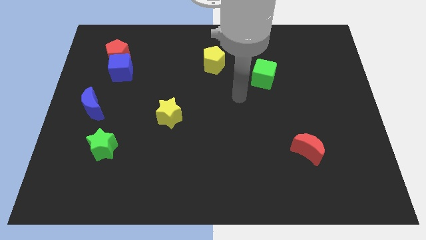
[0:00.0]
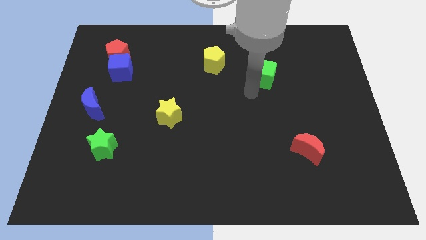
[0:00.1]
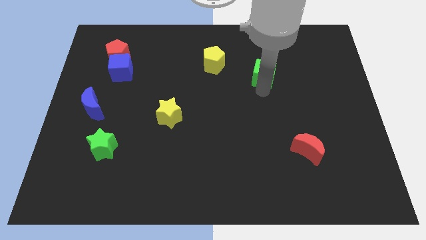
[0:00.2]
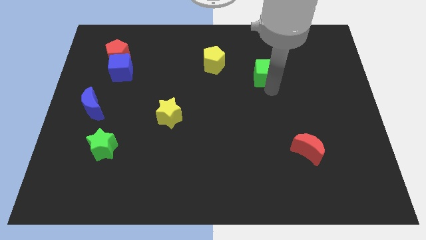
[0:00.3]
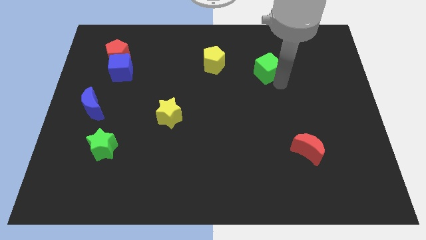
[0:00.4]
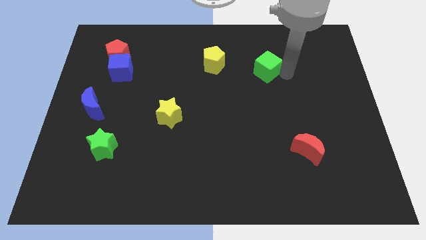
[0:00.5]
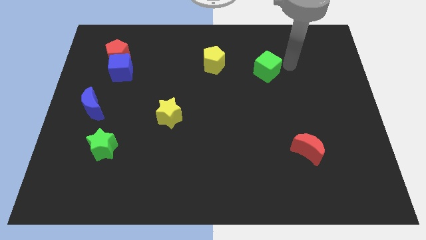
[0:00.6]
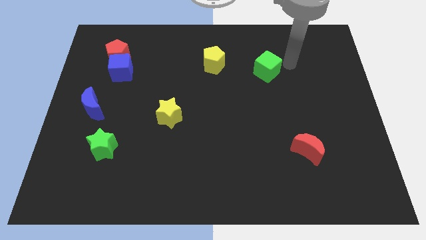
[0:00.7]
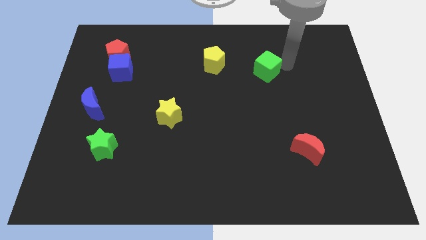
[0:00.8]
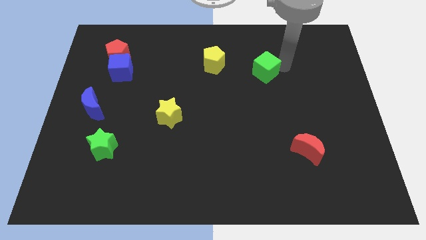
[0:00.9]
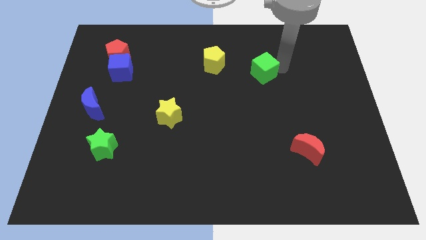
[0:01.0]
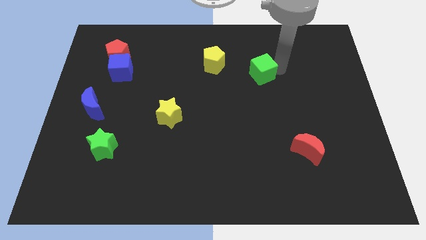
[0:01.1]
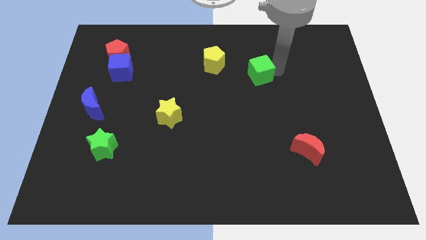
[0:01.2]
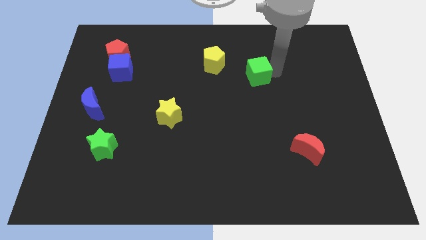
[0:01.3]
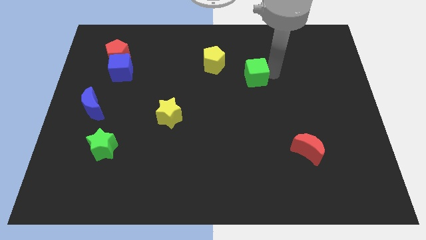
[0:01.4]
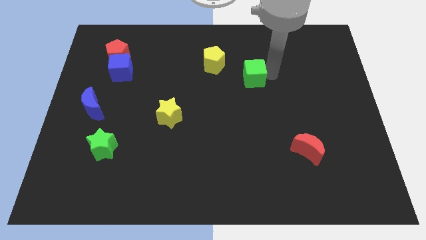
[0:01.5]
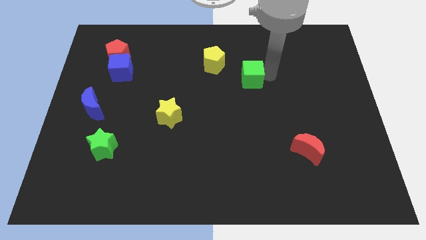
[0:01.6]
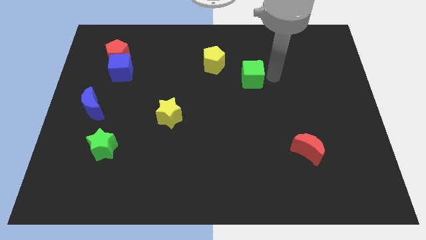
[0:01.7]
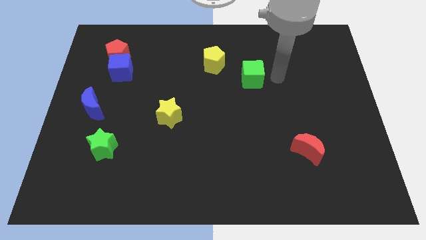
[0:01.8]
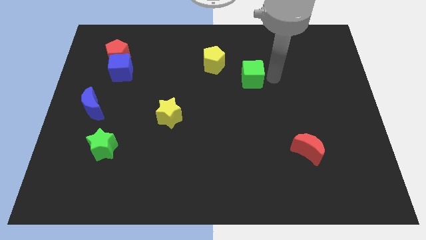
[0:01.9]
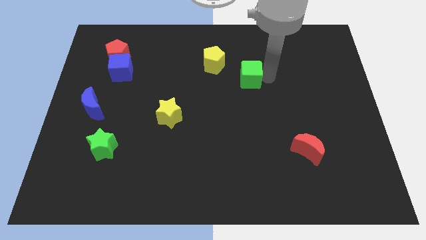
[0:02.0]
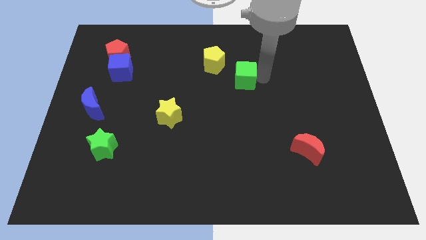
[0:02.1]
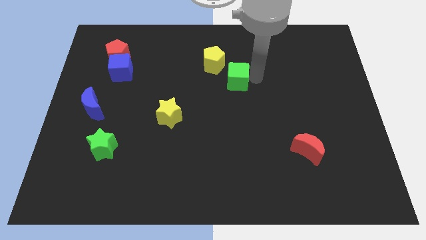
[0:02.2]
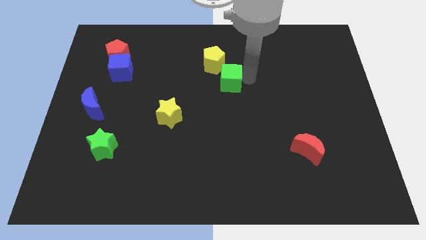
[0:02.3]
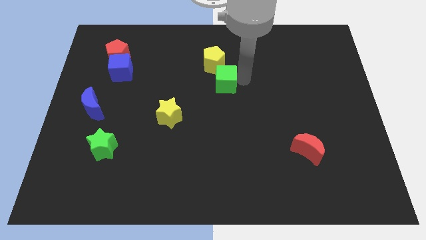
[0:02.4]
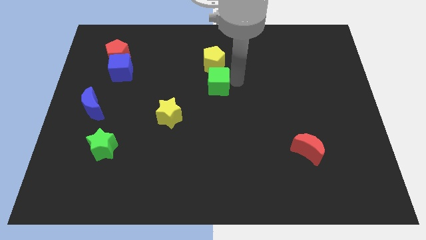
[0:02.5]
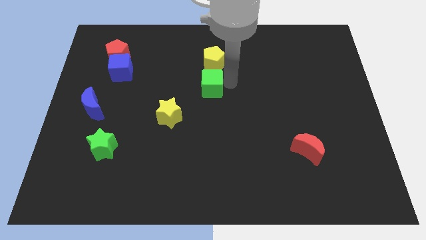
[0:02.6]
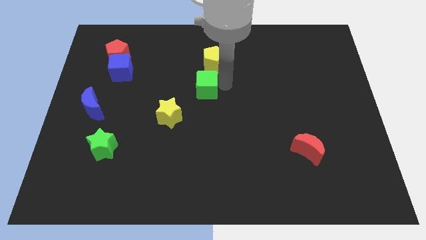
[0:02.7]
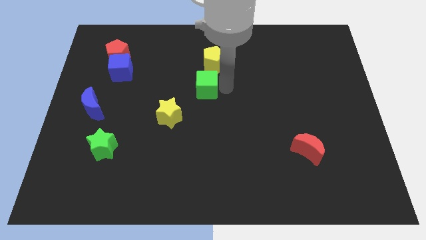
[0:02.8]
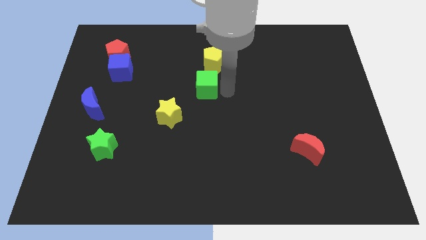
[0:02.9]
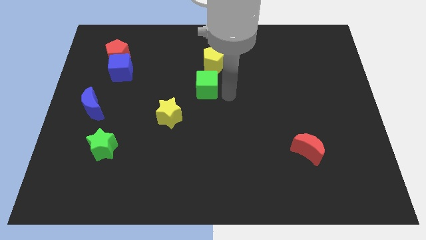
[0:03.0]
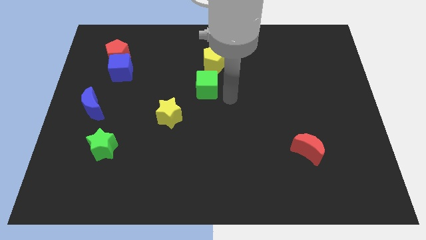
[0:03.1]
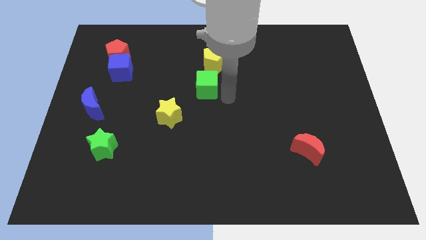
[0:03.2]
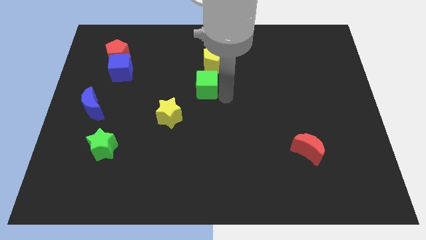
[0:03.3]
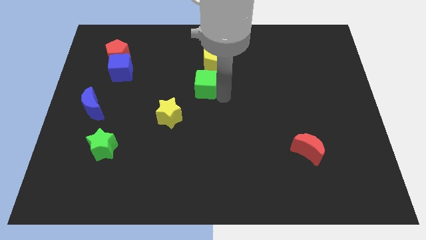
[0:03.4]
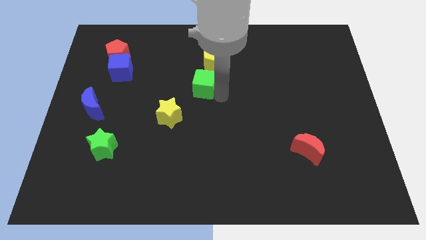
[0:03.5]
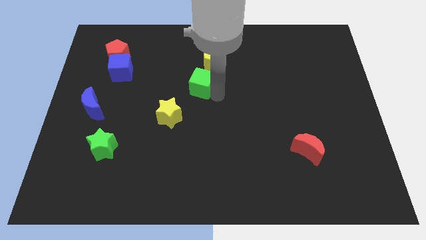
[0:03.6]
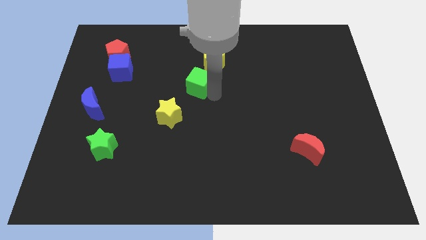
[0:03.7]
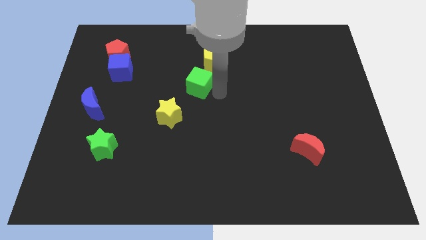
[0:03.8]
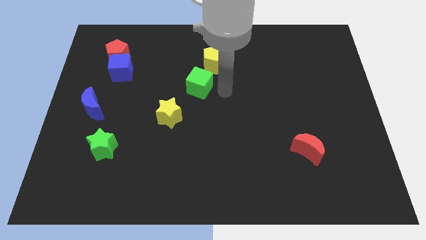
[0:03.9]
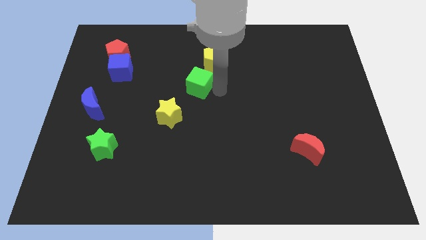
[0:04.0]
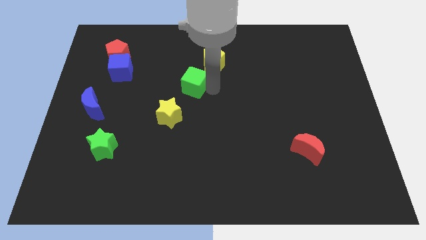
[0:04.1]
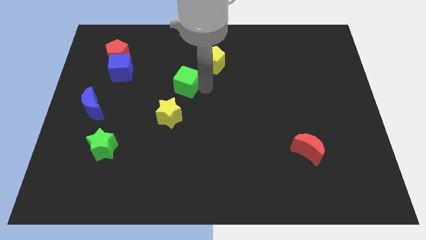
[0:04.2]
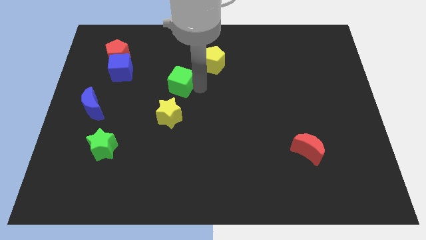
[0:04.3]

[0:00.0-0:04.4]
slide the green cube to the left

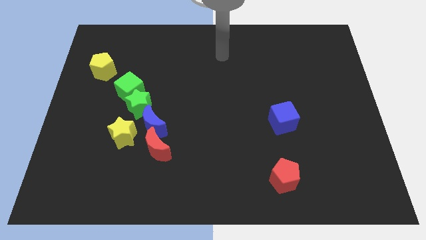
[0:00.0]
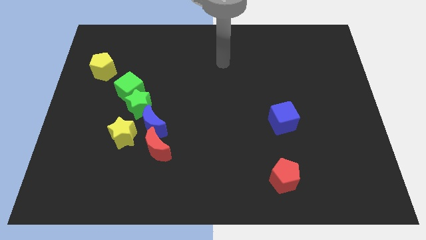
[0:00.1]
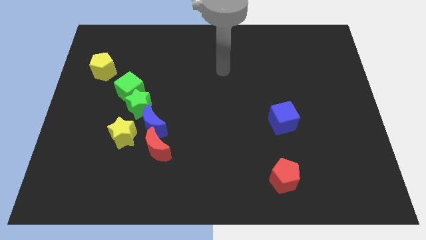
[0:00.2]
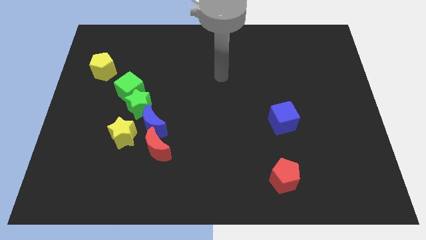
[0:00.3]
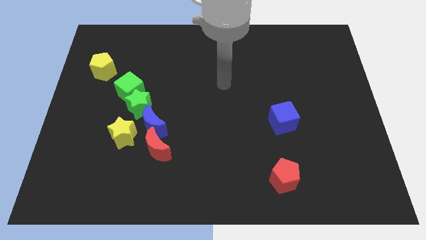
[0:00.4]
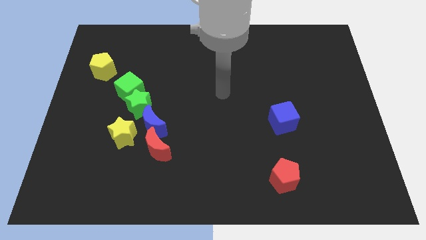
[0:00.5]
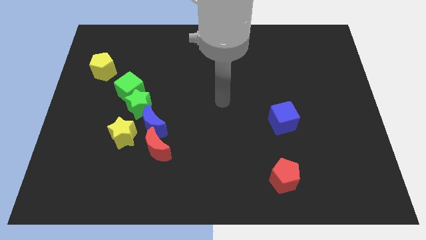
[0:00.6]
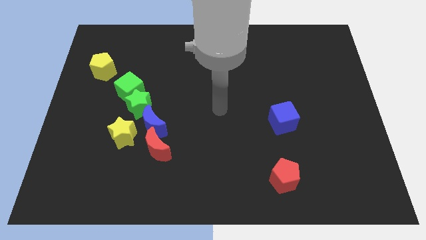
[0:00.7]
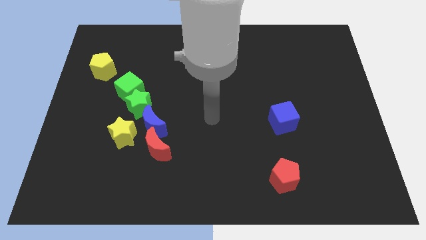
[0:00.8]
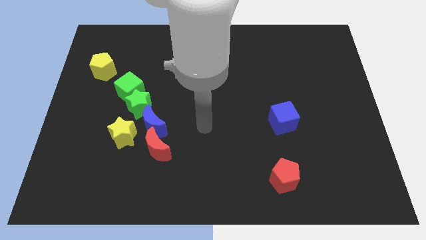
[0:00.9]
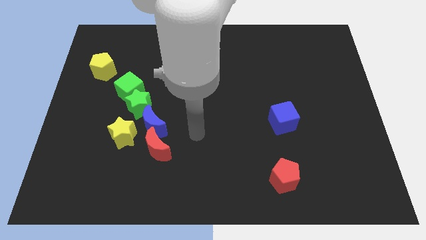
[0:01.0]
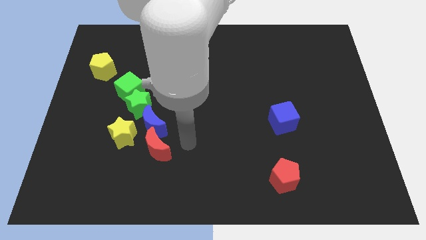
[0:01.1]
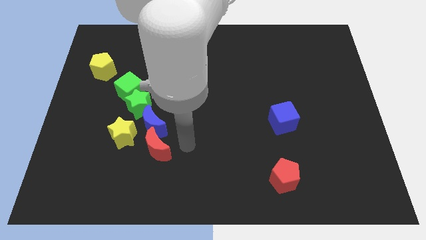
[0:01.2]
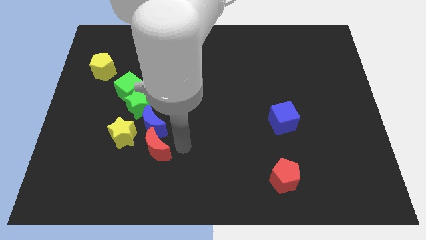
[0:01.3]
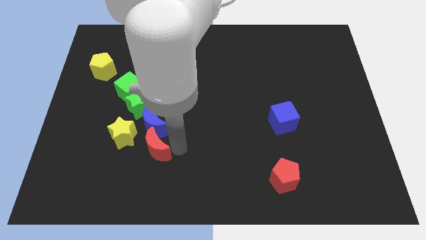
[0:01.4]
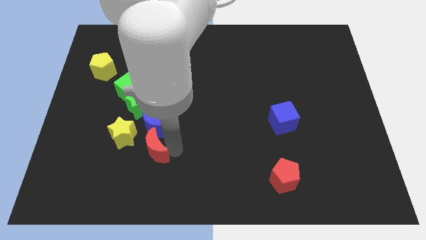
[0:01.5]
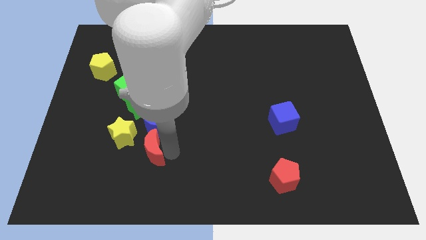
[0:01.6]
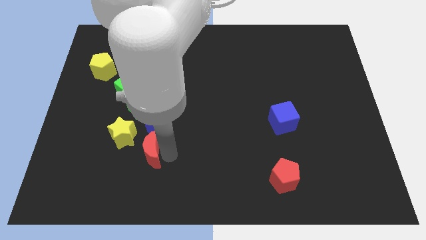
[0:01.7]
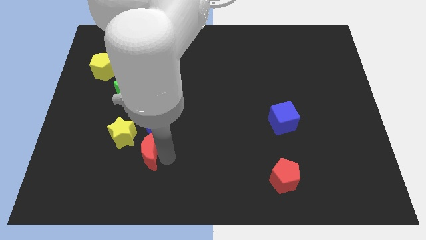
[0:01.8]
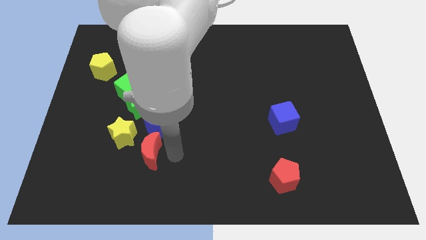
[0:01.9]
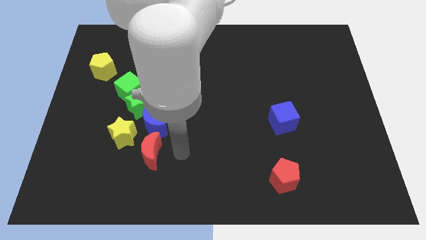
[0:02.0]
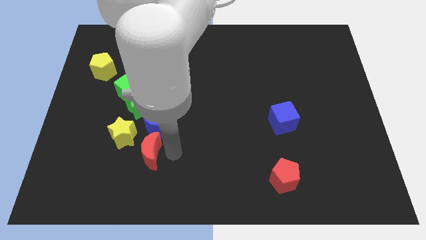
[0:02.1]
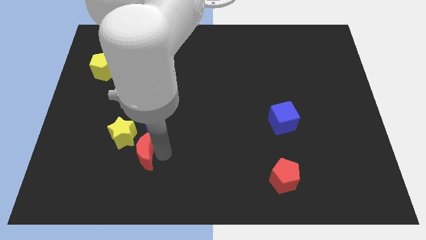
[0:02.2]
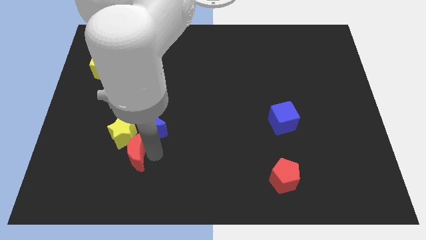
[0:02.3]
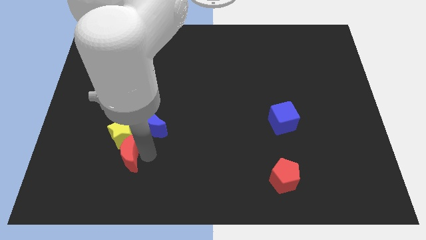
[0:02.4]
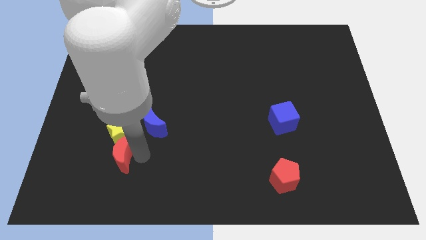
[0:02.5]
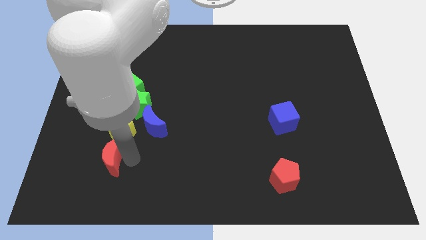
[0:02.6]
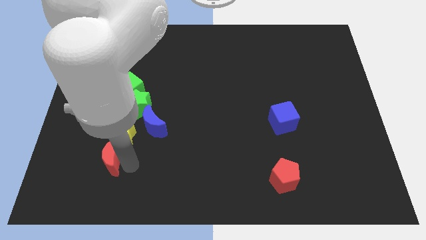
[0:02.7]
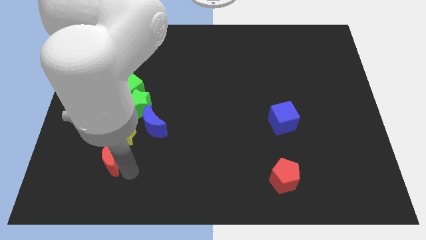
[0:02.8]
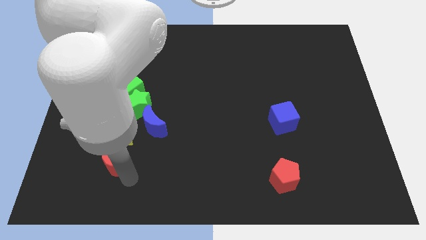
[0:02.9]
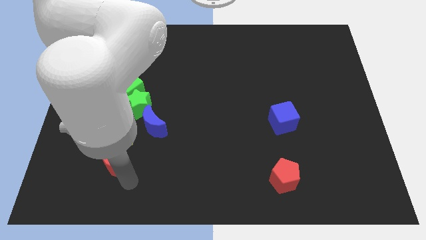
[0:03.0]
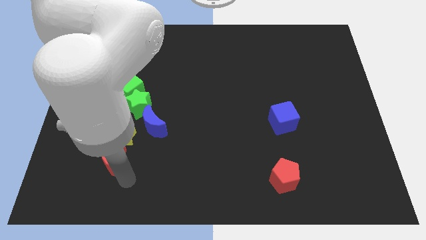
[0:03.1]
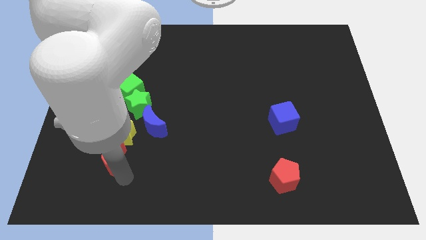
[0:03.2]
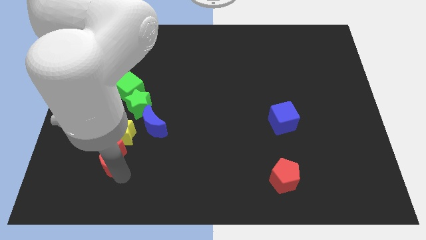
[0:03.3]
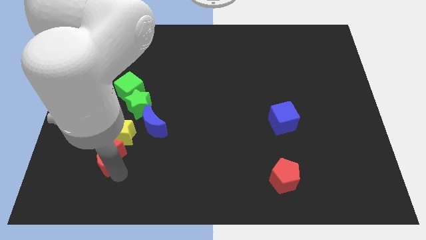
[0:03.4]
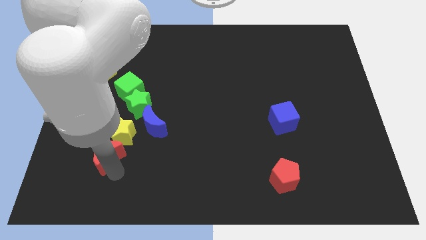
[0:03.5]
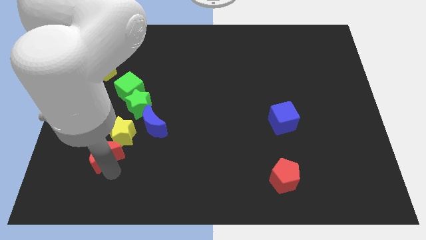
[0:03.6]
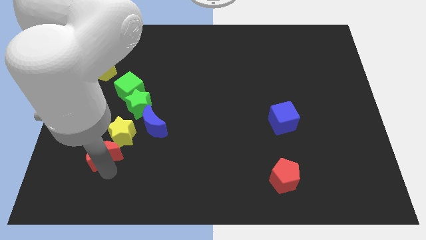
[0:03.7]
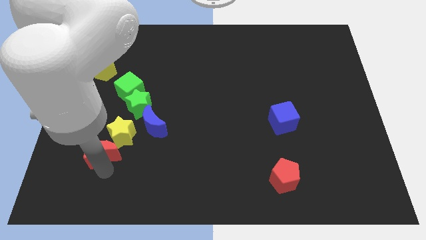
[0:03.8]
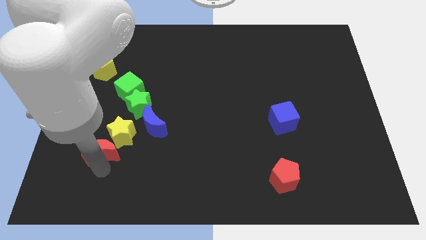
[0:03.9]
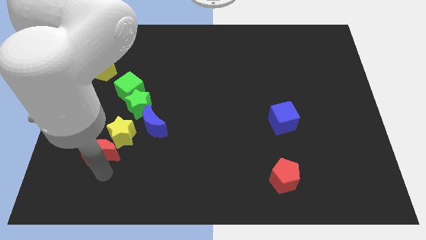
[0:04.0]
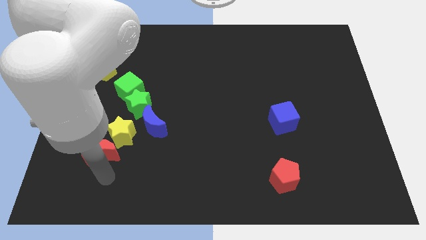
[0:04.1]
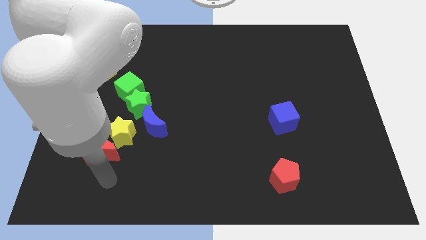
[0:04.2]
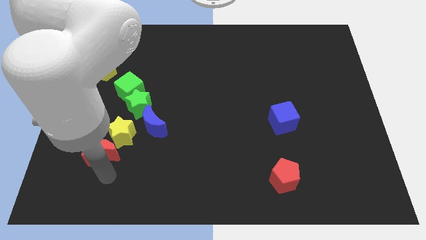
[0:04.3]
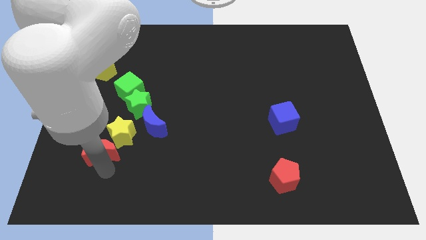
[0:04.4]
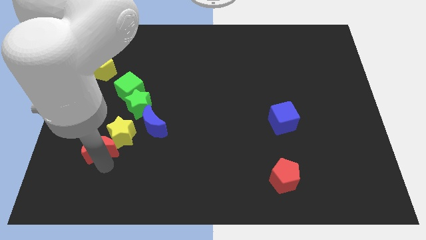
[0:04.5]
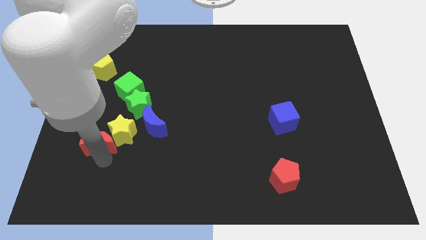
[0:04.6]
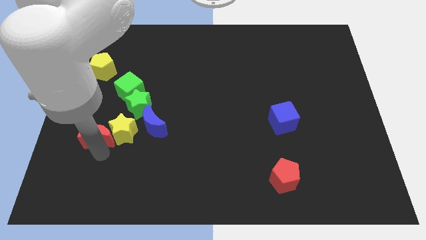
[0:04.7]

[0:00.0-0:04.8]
push the red moon diagonally upwards and left somewhat
